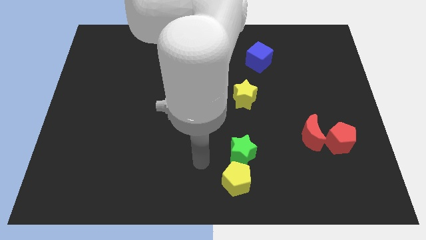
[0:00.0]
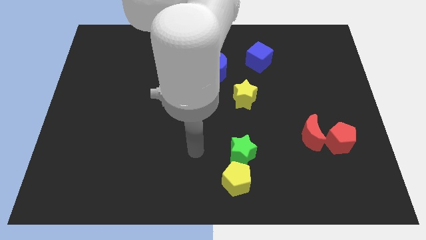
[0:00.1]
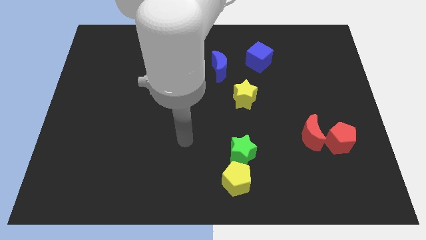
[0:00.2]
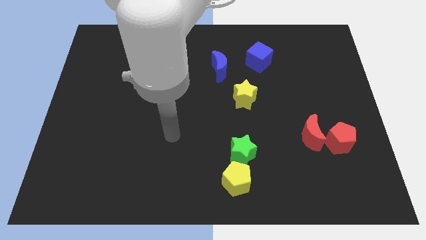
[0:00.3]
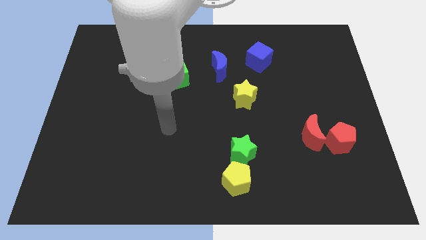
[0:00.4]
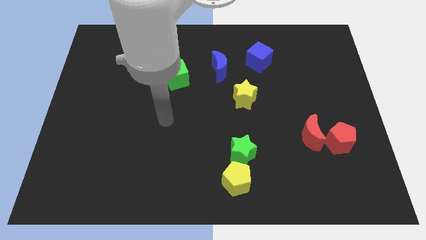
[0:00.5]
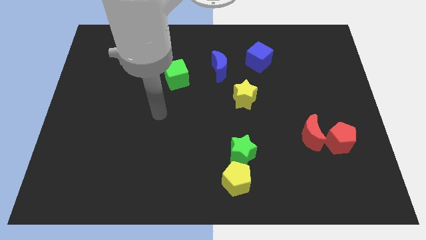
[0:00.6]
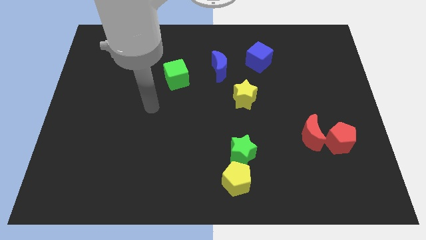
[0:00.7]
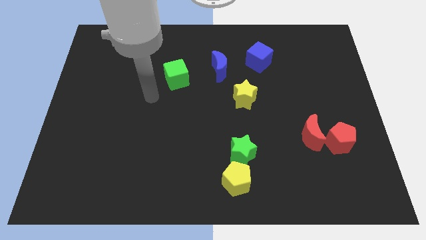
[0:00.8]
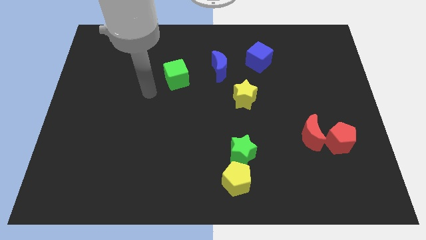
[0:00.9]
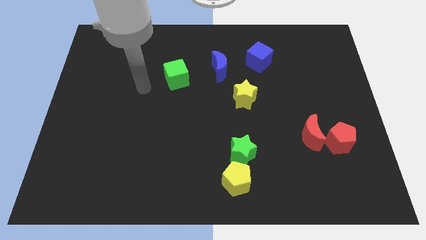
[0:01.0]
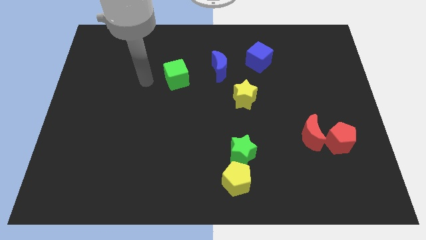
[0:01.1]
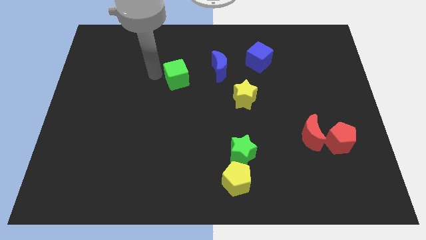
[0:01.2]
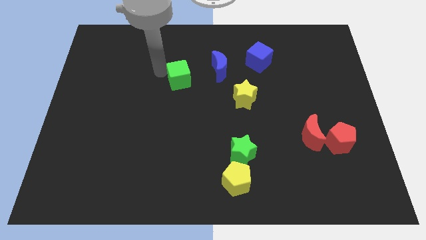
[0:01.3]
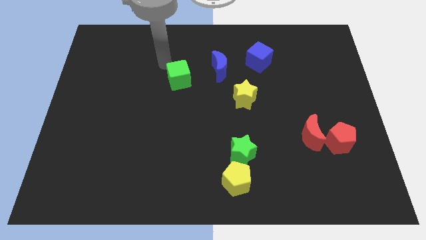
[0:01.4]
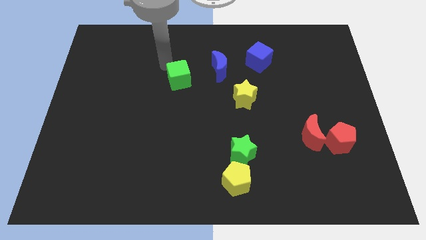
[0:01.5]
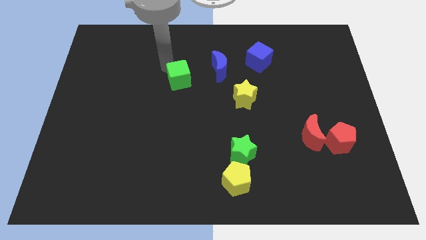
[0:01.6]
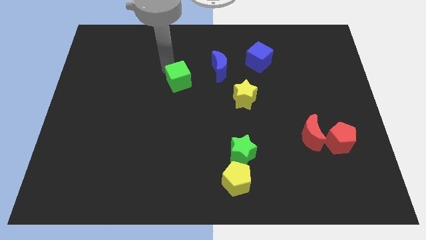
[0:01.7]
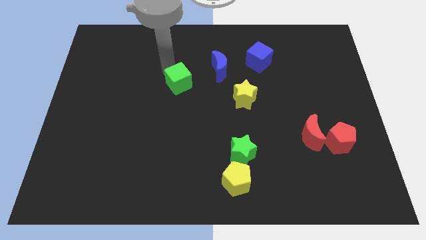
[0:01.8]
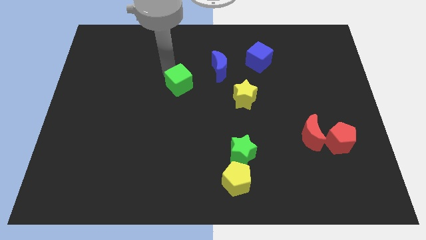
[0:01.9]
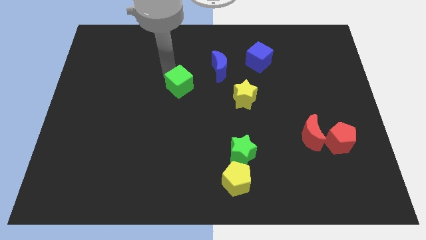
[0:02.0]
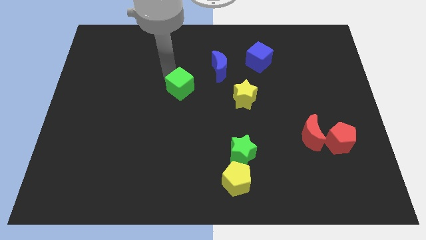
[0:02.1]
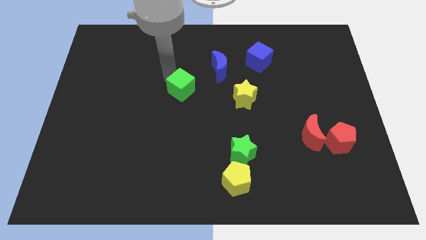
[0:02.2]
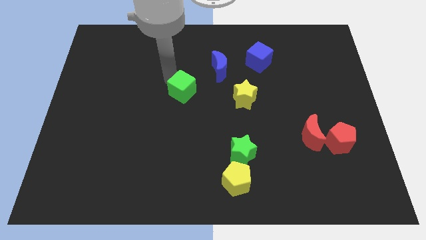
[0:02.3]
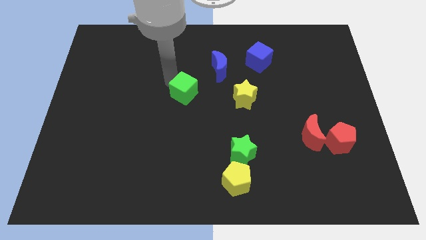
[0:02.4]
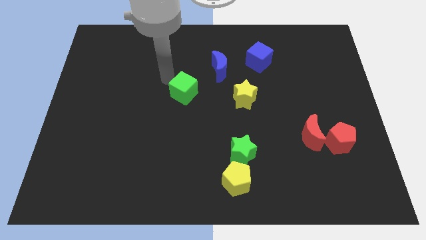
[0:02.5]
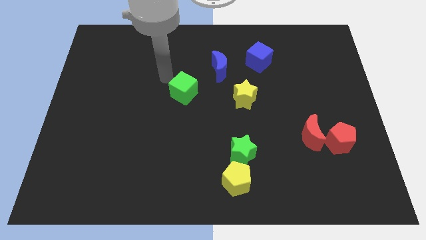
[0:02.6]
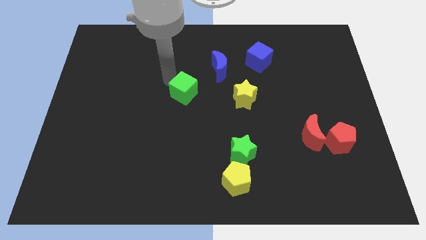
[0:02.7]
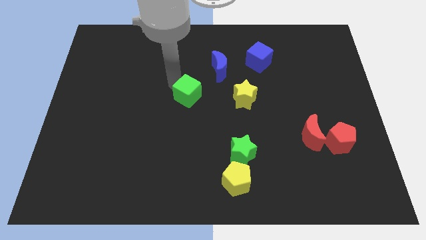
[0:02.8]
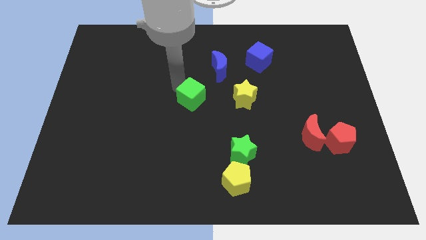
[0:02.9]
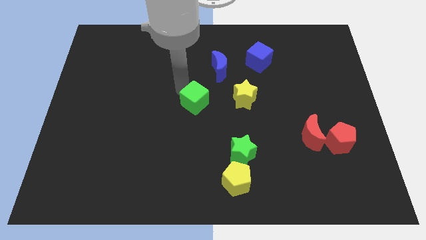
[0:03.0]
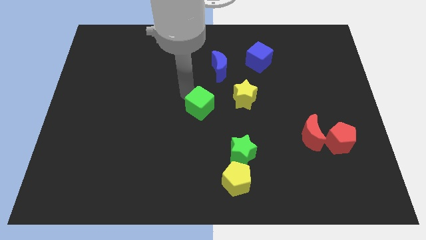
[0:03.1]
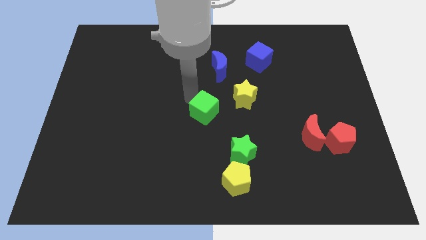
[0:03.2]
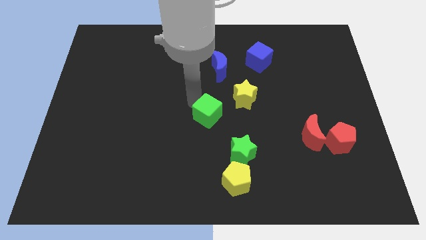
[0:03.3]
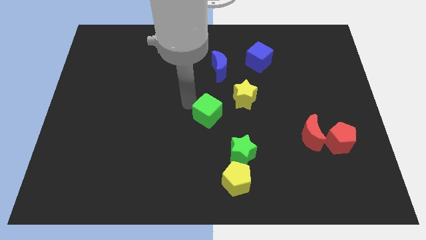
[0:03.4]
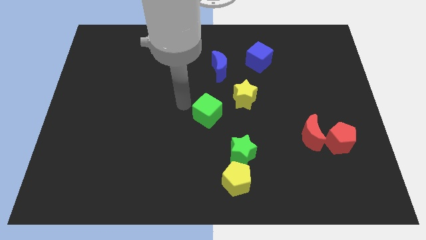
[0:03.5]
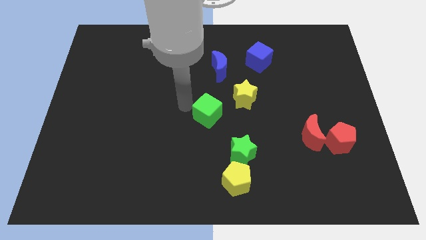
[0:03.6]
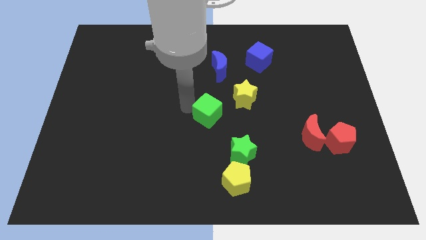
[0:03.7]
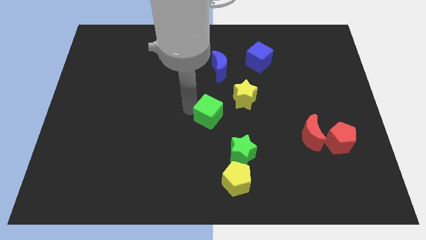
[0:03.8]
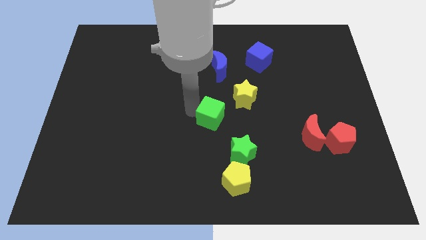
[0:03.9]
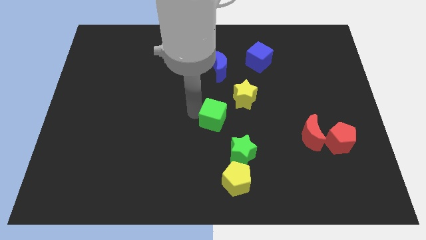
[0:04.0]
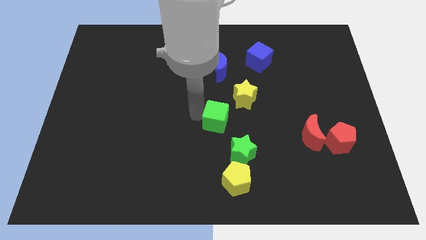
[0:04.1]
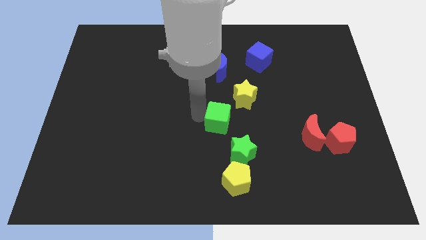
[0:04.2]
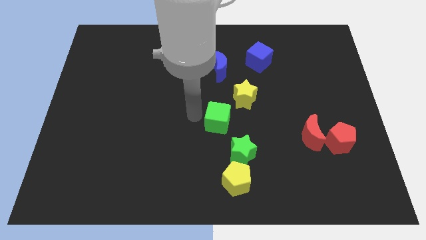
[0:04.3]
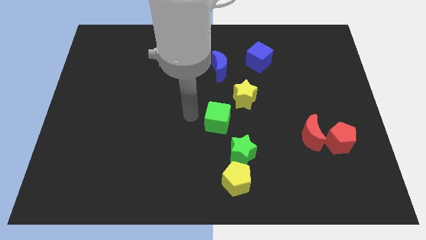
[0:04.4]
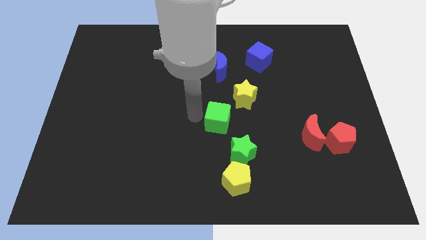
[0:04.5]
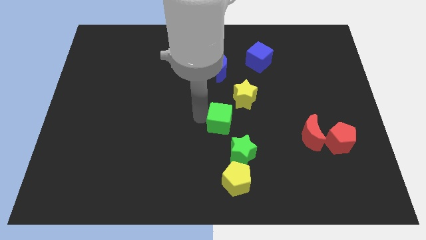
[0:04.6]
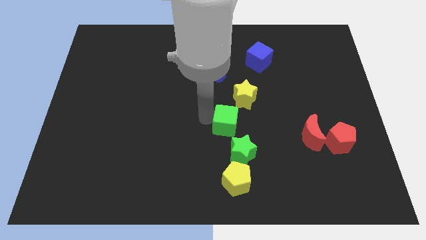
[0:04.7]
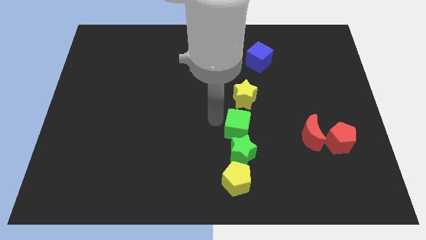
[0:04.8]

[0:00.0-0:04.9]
move the green cube diagonally downwards and to the right

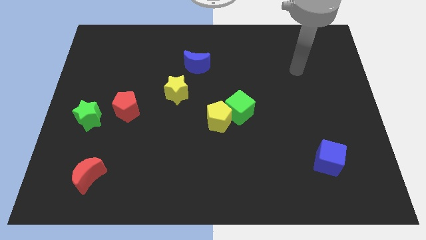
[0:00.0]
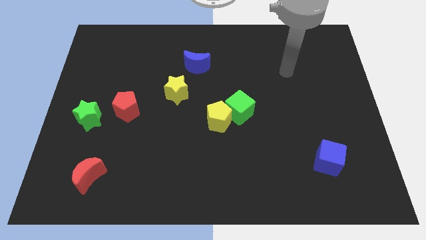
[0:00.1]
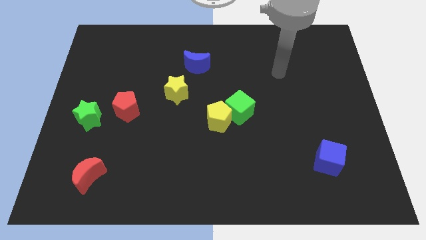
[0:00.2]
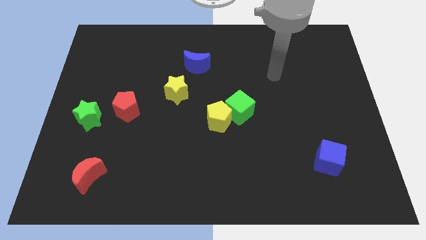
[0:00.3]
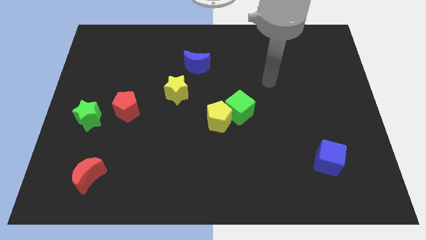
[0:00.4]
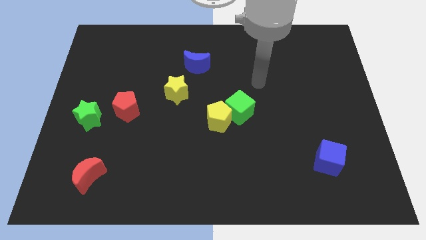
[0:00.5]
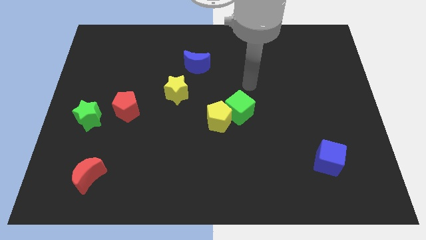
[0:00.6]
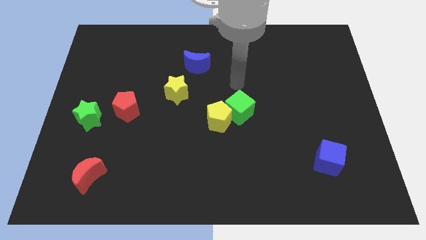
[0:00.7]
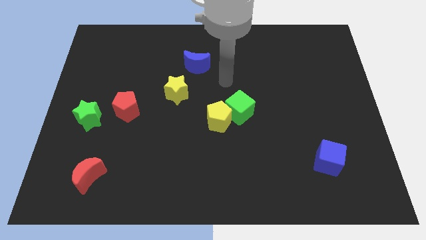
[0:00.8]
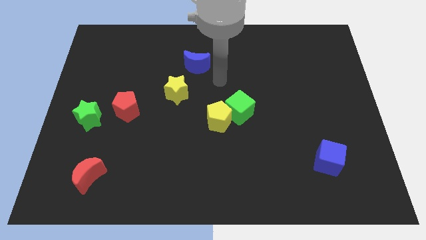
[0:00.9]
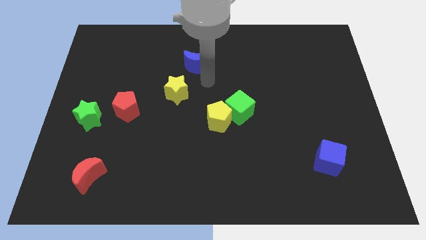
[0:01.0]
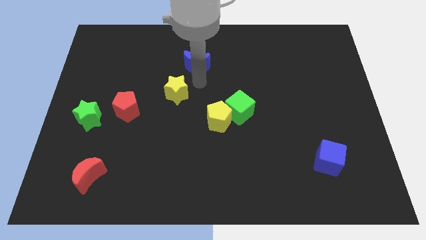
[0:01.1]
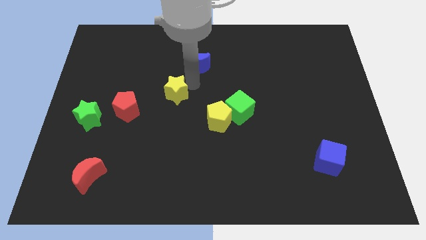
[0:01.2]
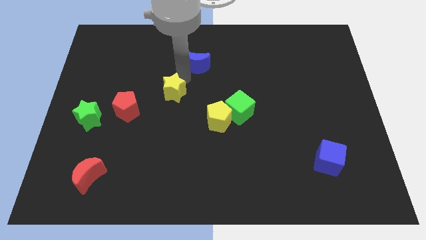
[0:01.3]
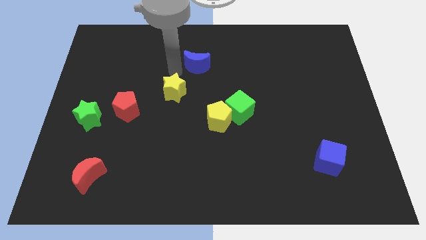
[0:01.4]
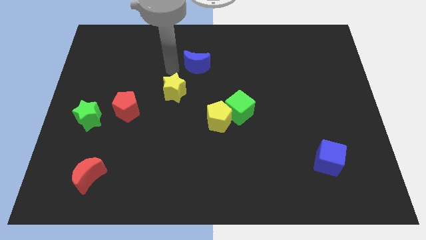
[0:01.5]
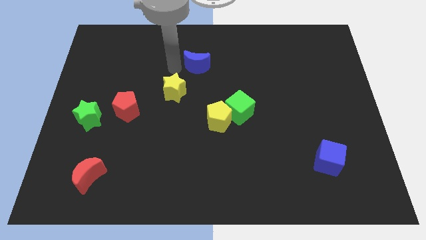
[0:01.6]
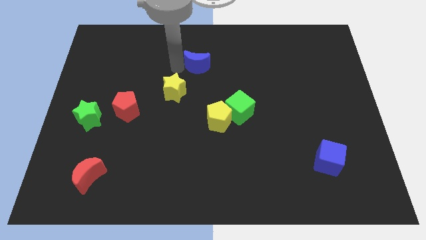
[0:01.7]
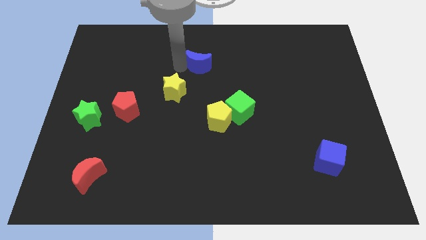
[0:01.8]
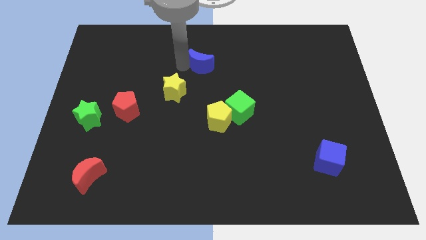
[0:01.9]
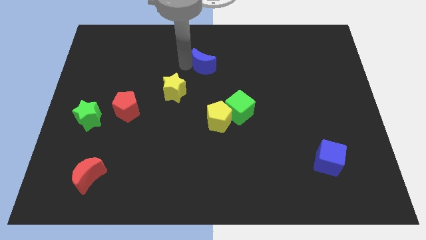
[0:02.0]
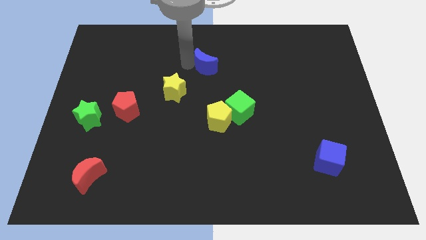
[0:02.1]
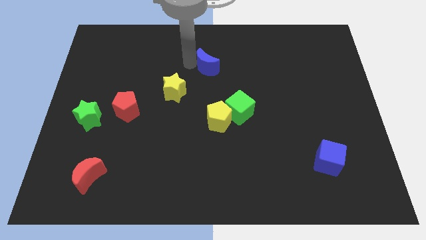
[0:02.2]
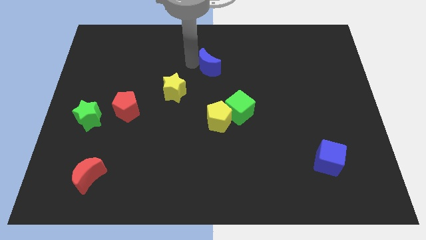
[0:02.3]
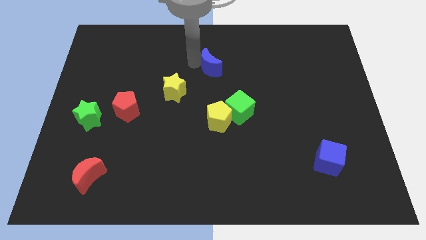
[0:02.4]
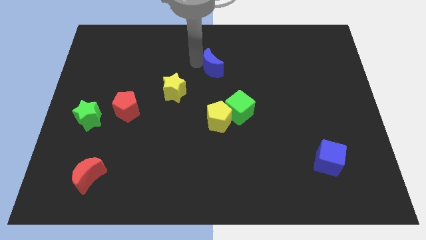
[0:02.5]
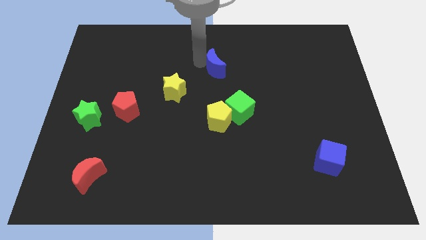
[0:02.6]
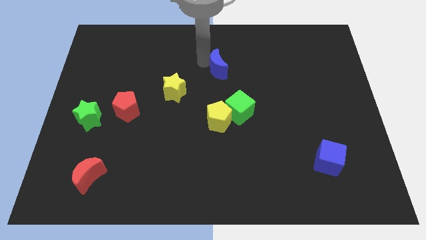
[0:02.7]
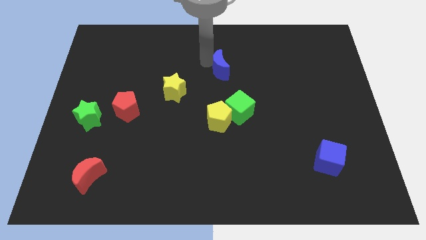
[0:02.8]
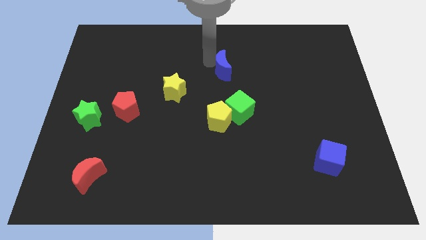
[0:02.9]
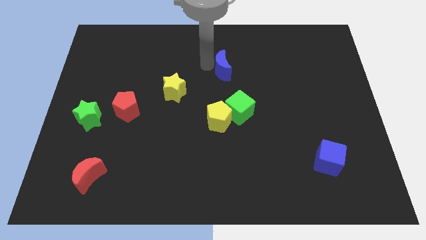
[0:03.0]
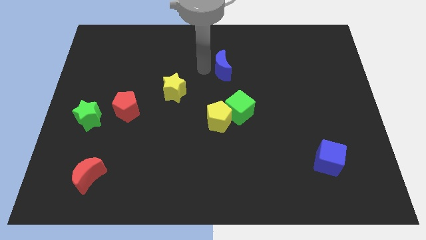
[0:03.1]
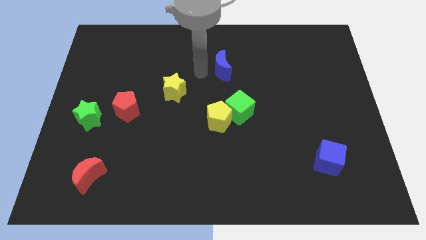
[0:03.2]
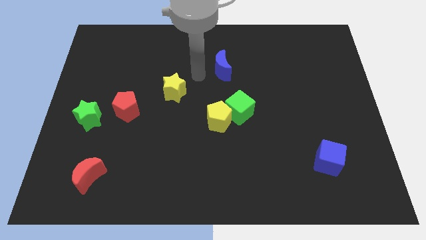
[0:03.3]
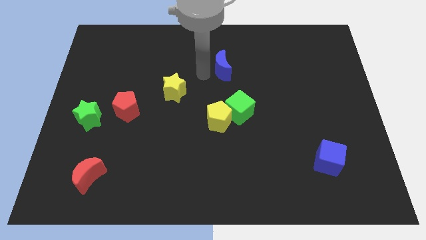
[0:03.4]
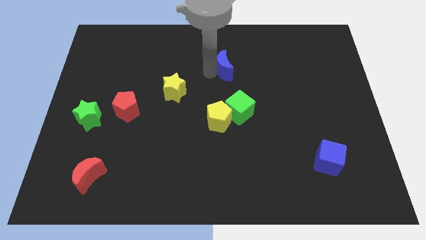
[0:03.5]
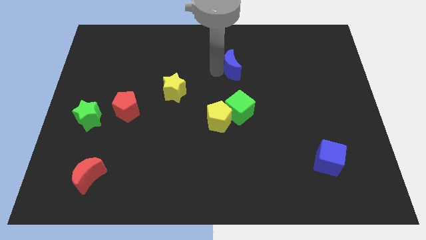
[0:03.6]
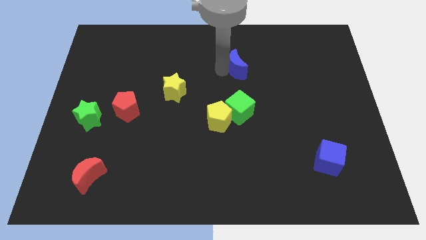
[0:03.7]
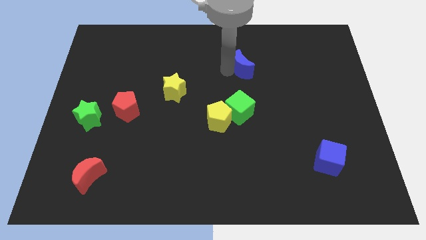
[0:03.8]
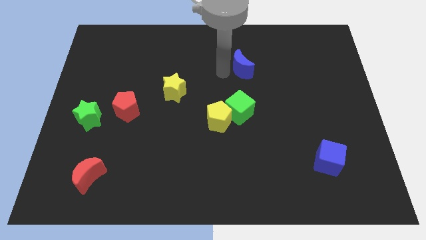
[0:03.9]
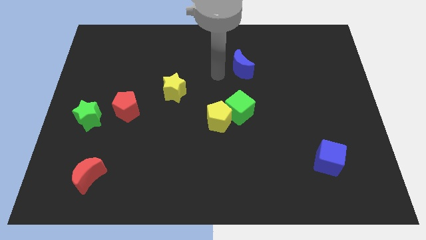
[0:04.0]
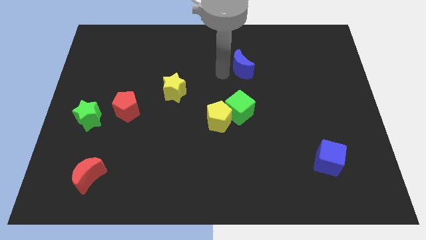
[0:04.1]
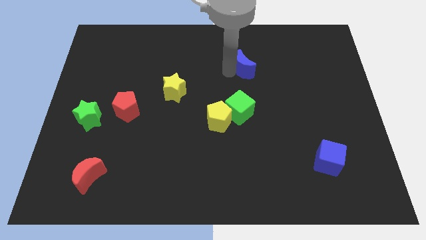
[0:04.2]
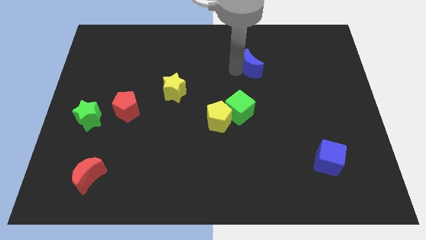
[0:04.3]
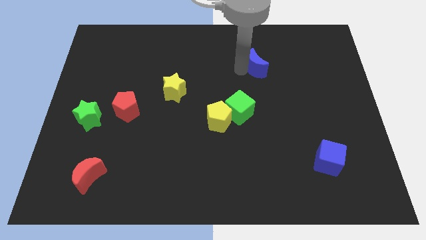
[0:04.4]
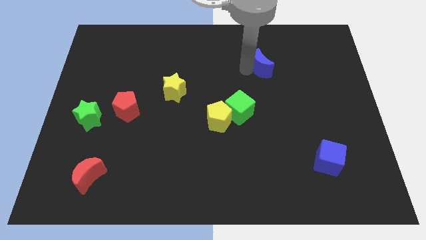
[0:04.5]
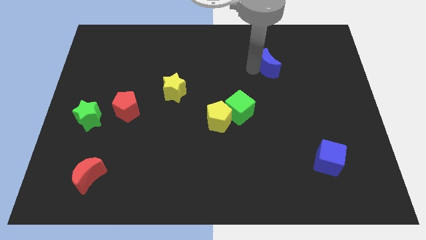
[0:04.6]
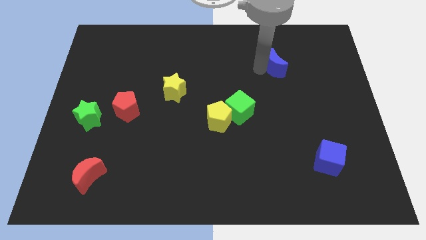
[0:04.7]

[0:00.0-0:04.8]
move the blue moon to the right
